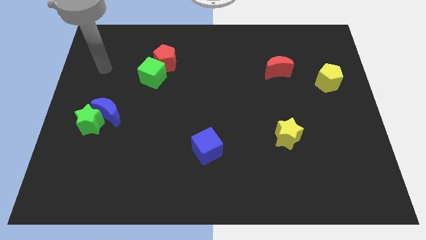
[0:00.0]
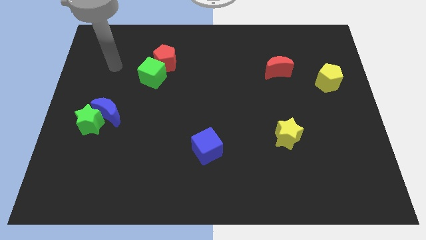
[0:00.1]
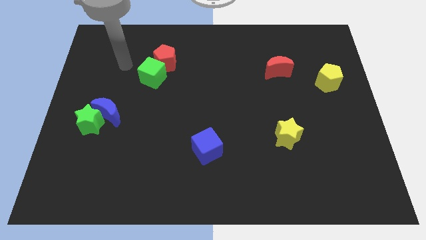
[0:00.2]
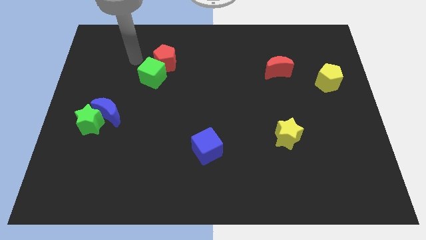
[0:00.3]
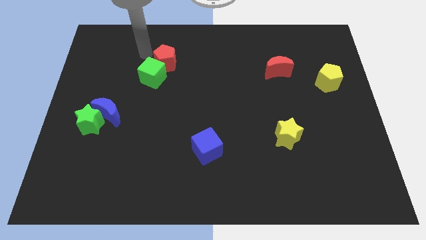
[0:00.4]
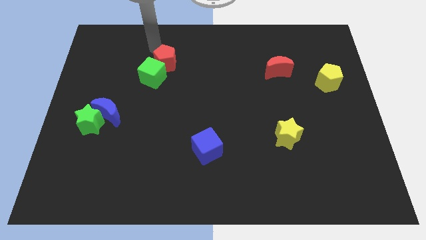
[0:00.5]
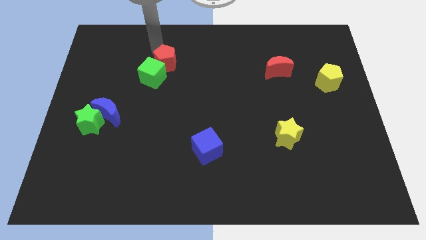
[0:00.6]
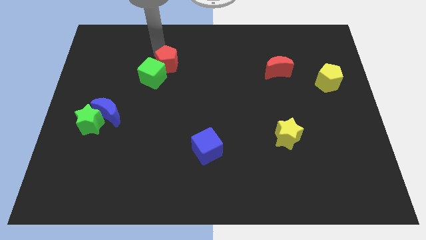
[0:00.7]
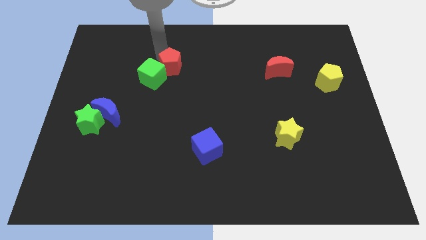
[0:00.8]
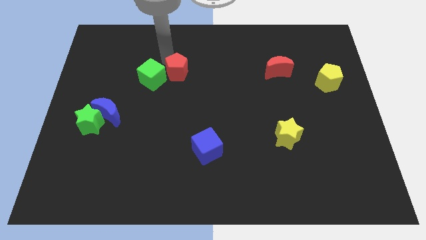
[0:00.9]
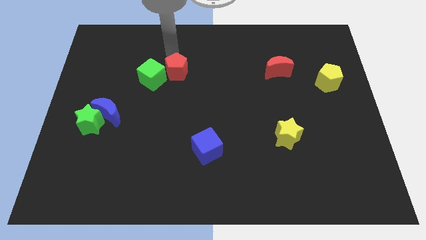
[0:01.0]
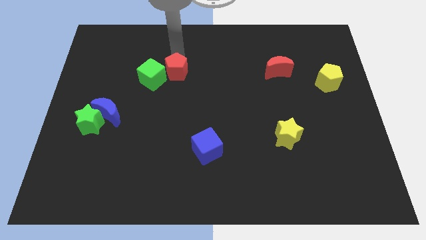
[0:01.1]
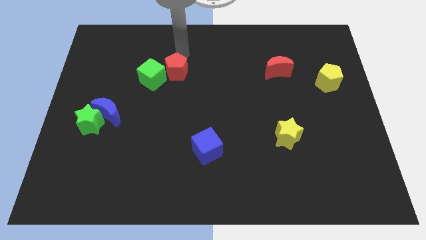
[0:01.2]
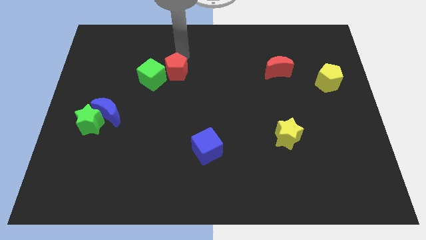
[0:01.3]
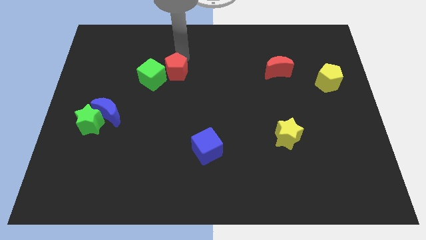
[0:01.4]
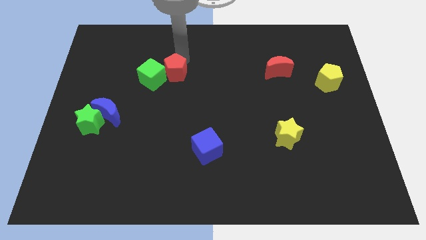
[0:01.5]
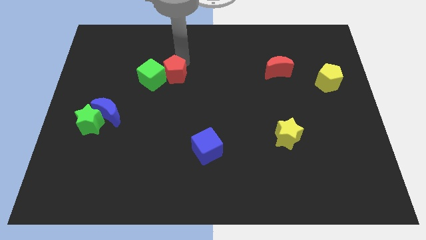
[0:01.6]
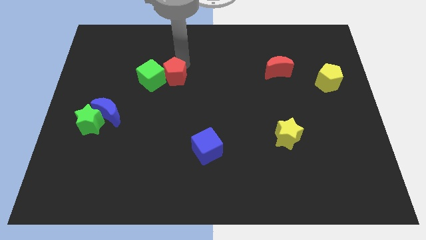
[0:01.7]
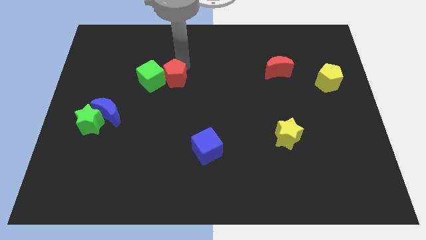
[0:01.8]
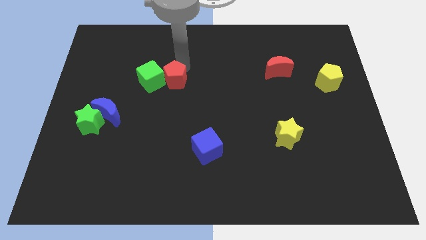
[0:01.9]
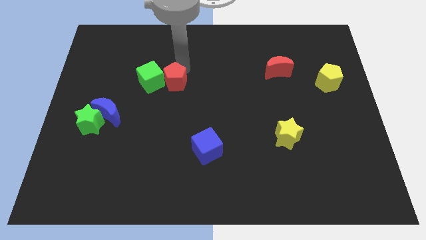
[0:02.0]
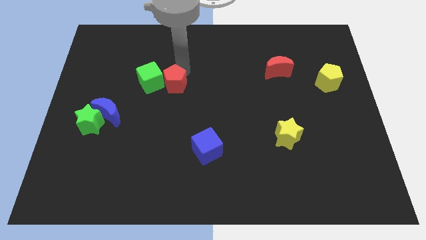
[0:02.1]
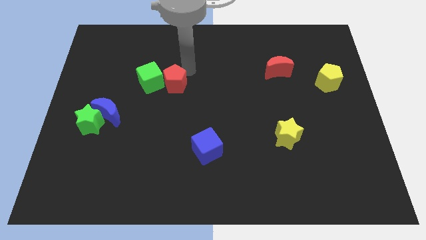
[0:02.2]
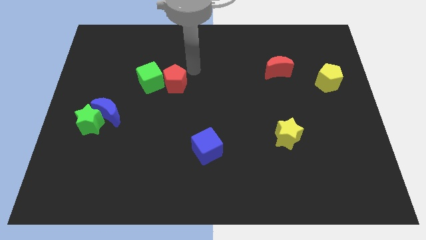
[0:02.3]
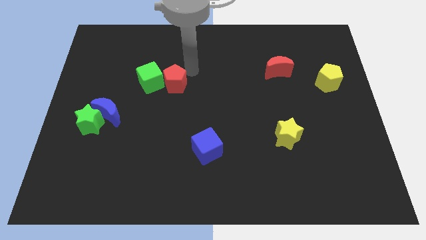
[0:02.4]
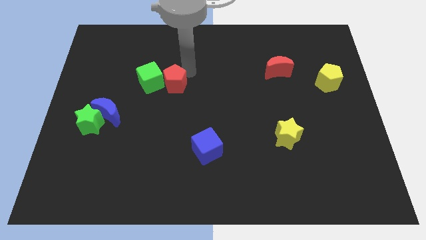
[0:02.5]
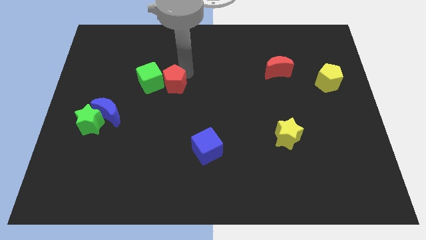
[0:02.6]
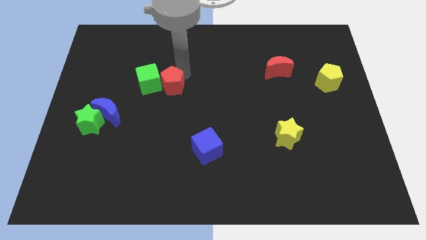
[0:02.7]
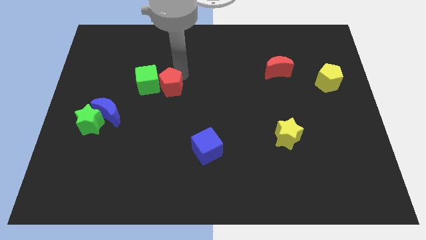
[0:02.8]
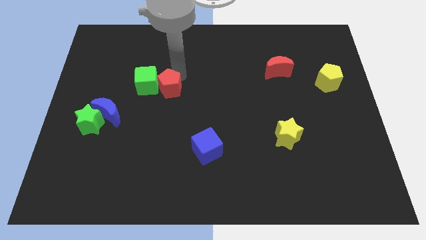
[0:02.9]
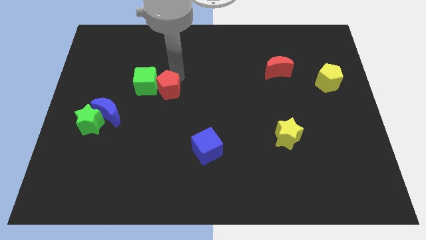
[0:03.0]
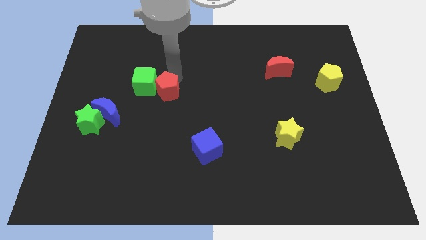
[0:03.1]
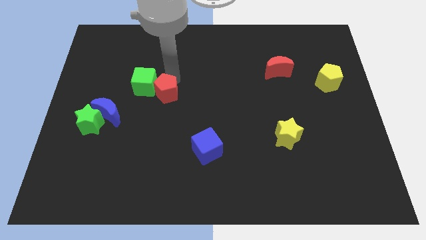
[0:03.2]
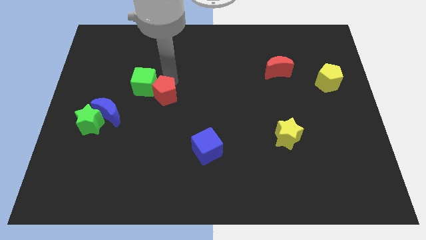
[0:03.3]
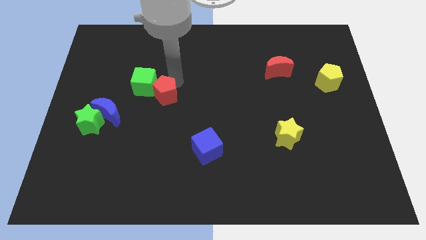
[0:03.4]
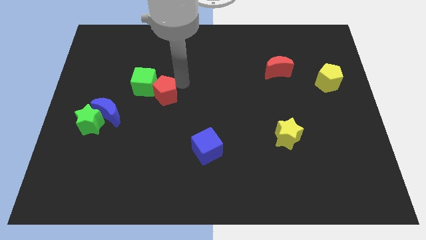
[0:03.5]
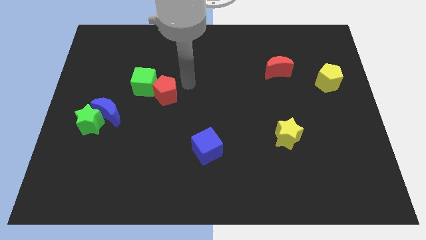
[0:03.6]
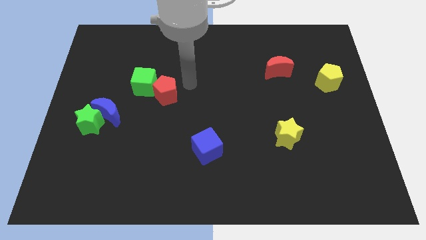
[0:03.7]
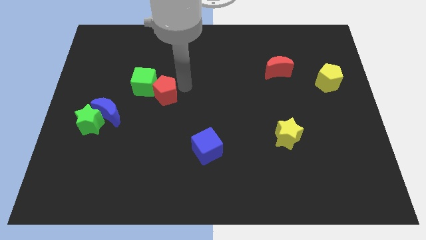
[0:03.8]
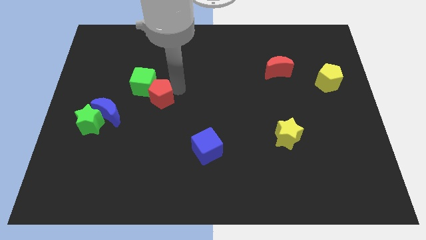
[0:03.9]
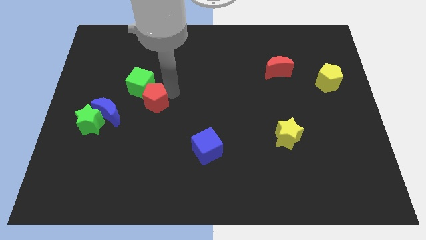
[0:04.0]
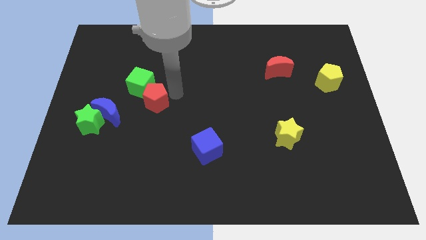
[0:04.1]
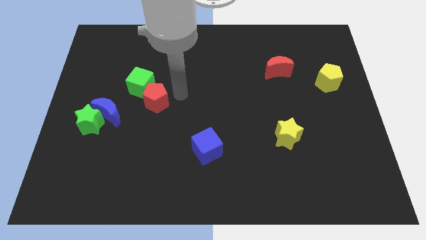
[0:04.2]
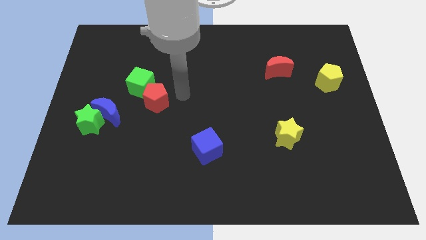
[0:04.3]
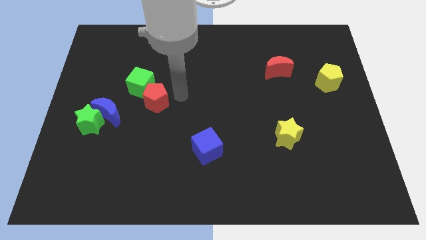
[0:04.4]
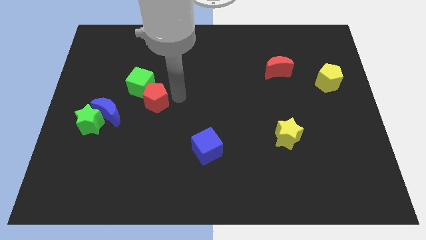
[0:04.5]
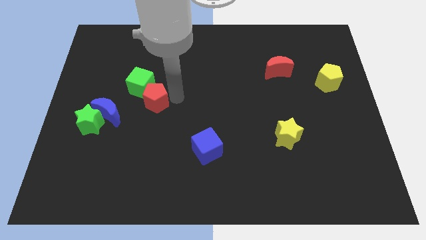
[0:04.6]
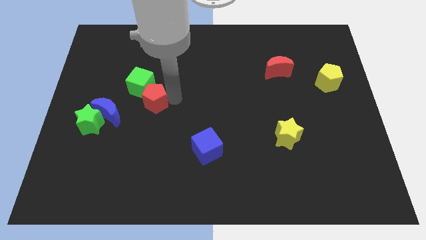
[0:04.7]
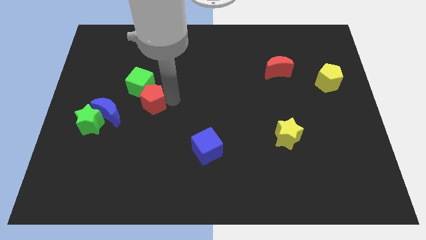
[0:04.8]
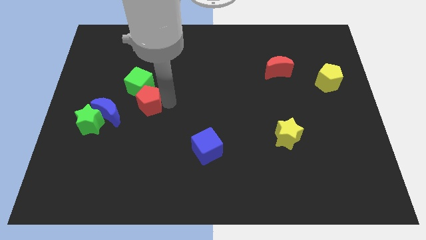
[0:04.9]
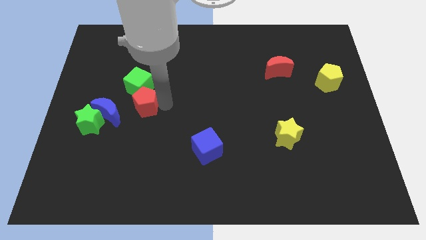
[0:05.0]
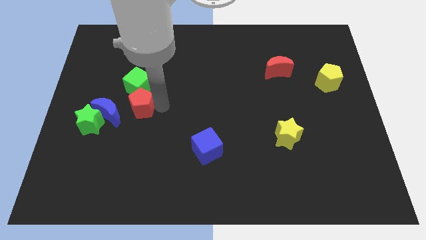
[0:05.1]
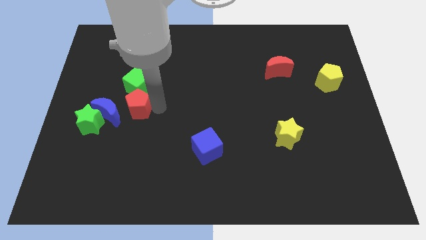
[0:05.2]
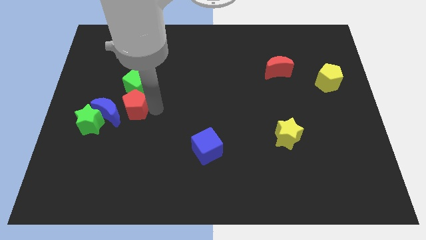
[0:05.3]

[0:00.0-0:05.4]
put the red pentagon to the blue moon

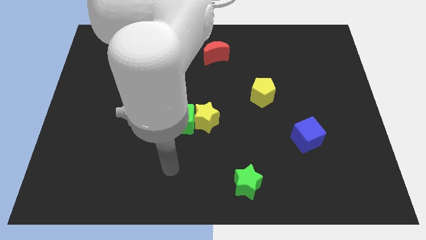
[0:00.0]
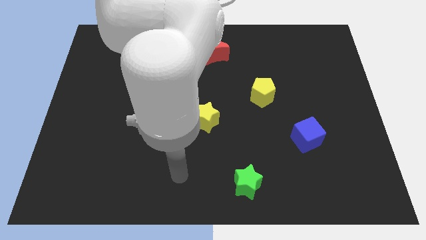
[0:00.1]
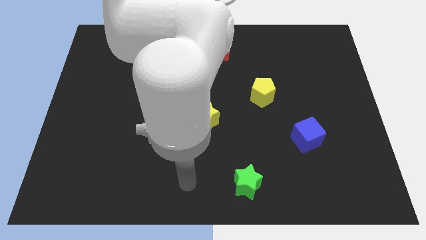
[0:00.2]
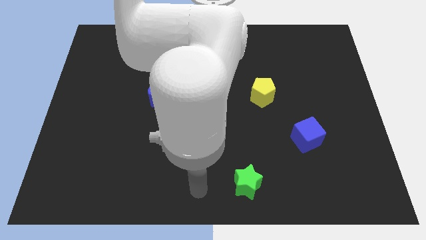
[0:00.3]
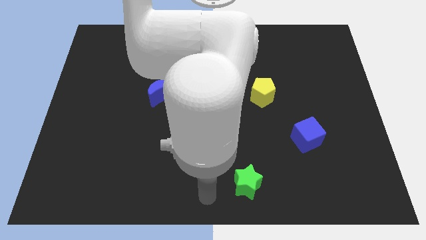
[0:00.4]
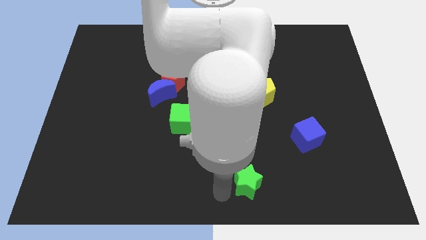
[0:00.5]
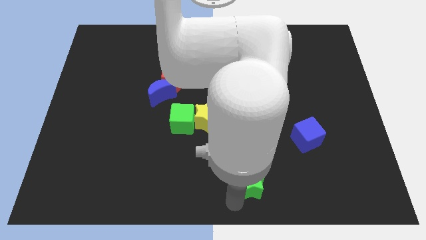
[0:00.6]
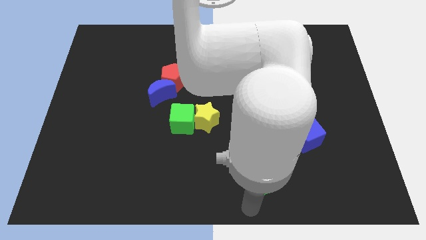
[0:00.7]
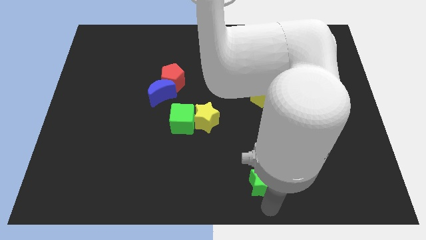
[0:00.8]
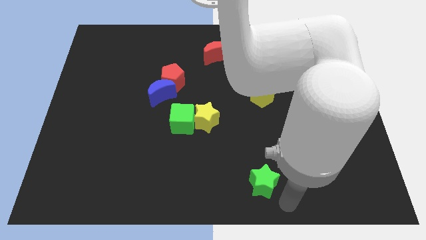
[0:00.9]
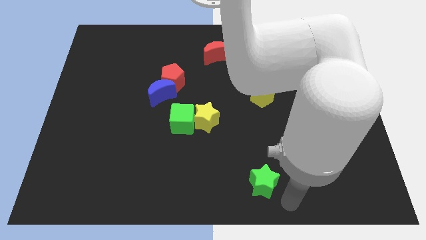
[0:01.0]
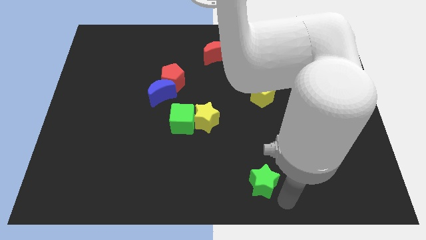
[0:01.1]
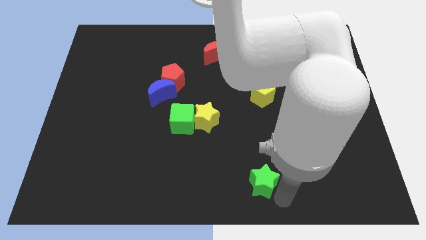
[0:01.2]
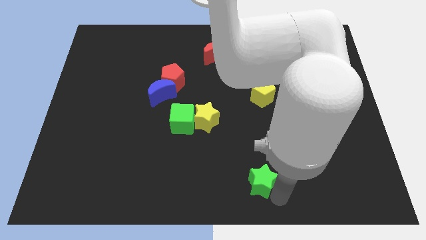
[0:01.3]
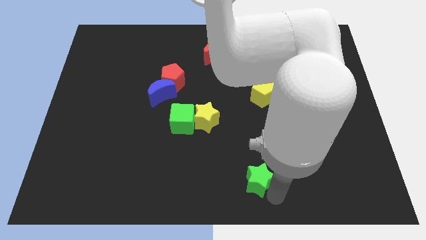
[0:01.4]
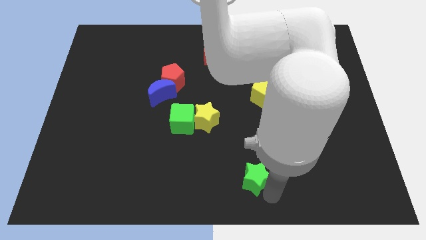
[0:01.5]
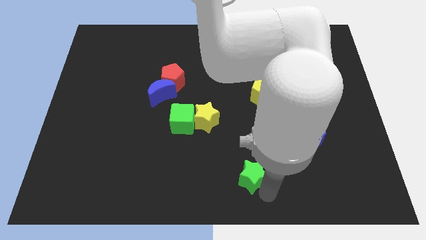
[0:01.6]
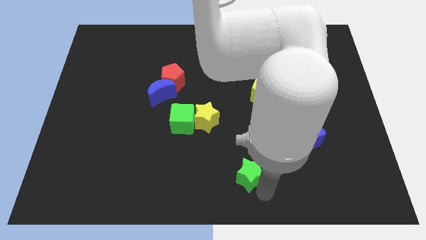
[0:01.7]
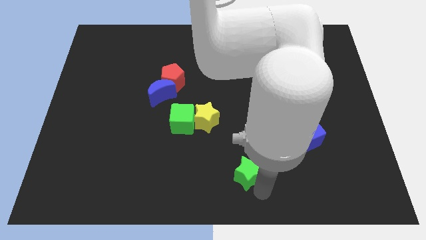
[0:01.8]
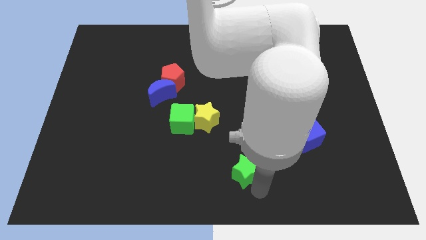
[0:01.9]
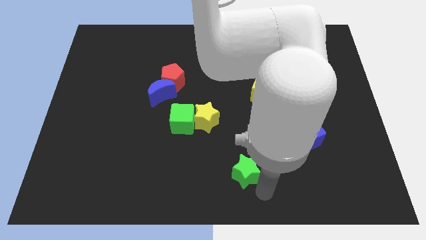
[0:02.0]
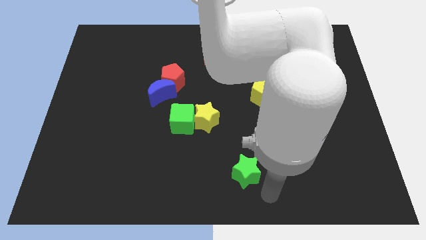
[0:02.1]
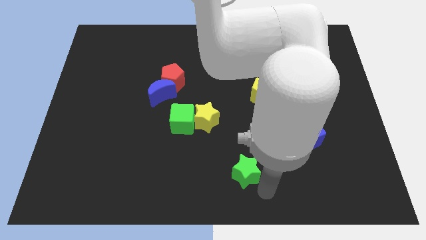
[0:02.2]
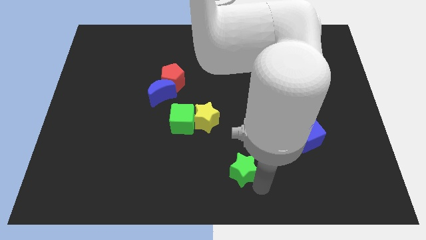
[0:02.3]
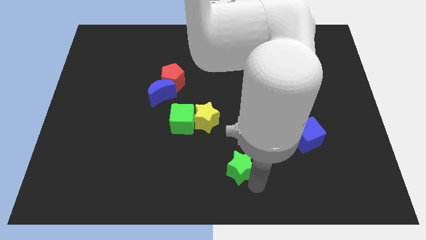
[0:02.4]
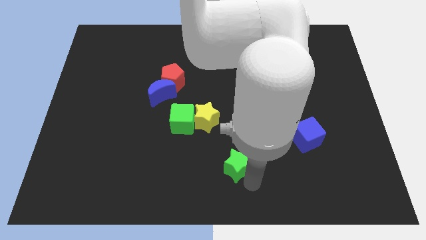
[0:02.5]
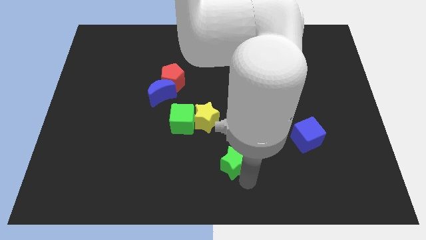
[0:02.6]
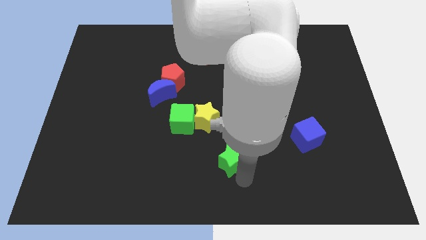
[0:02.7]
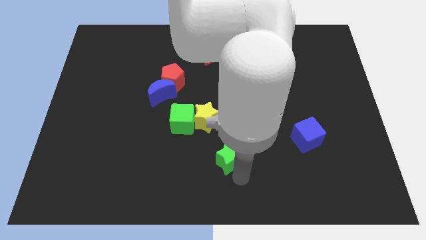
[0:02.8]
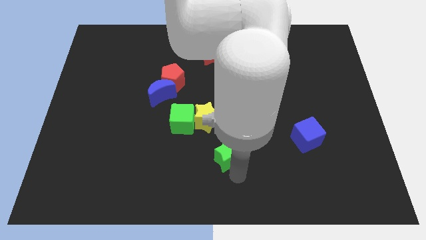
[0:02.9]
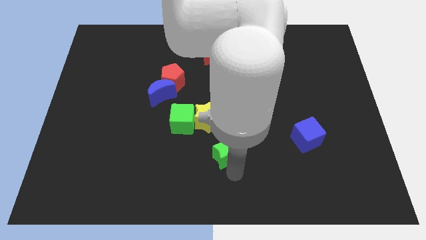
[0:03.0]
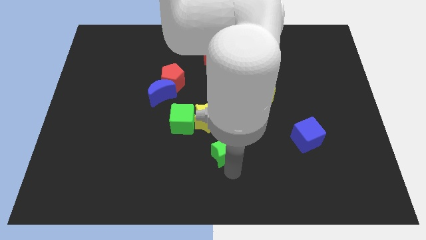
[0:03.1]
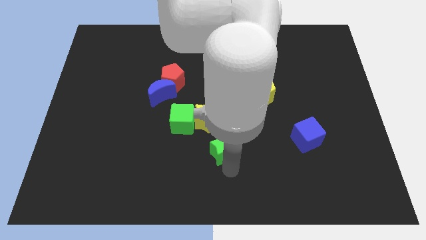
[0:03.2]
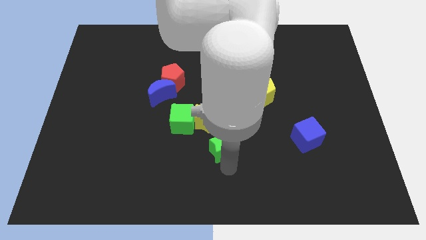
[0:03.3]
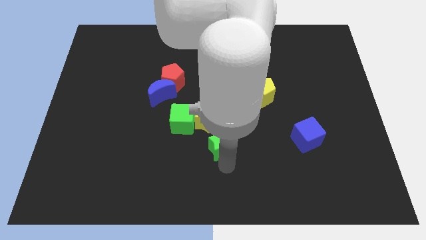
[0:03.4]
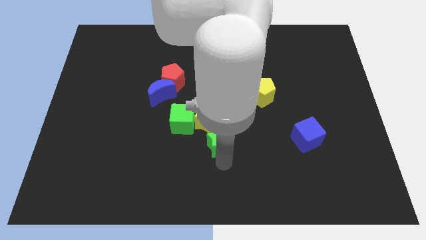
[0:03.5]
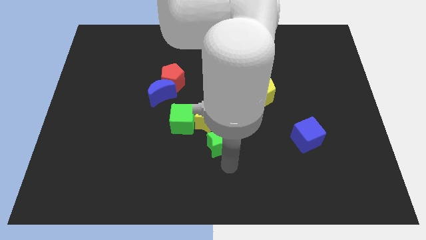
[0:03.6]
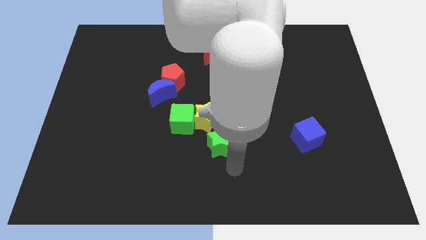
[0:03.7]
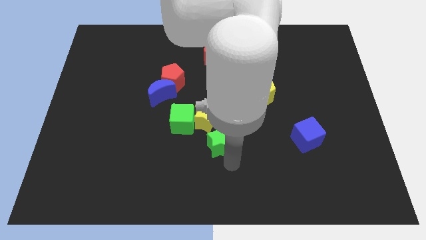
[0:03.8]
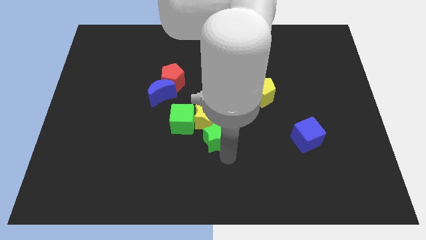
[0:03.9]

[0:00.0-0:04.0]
put the green star towards the yellow star
